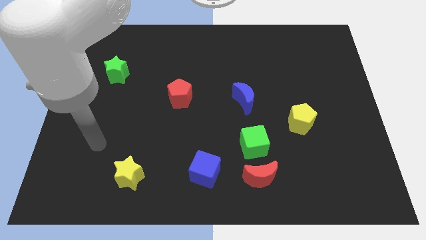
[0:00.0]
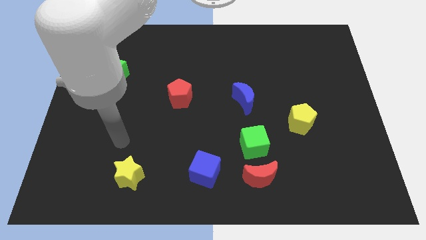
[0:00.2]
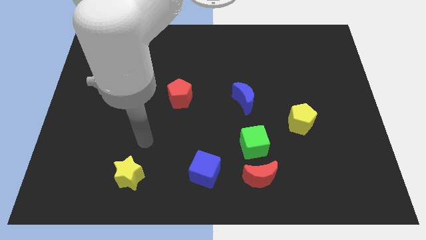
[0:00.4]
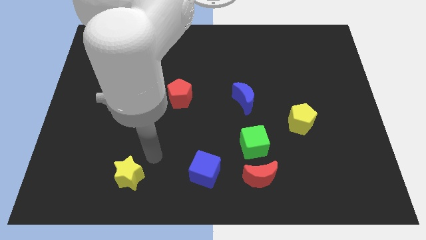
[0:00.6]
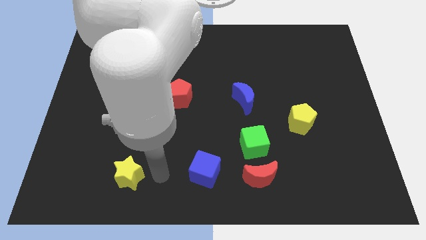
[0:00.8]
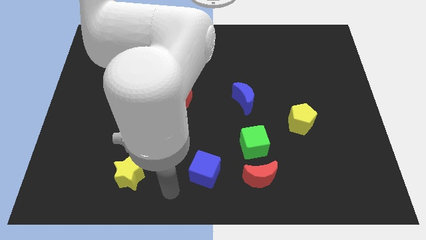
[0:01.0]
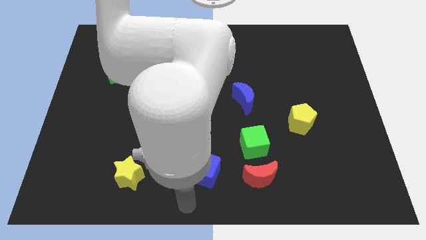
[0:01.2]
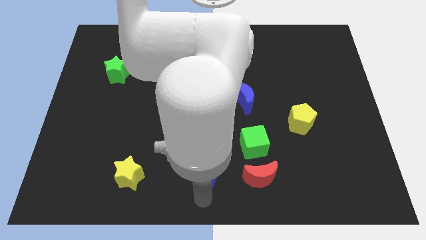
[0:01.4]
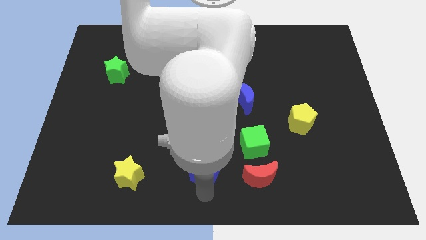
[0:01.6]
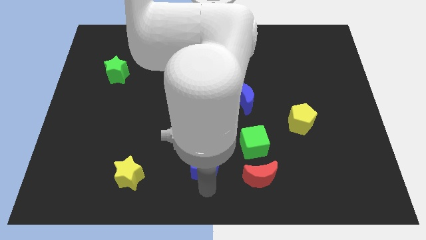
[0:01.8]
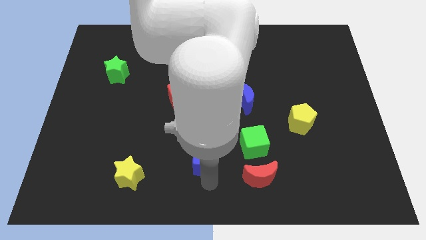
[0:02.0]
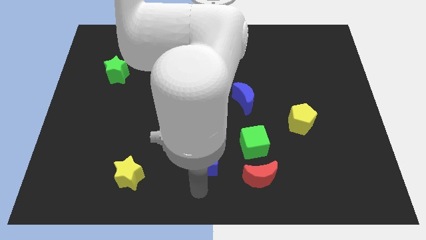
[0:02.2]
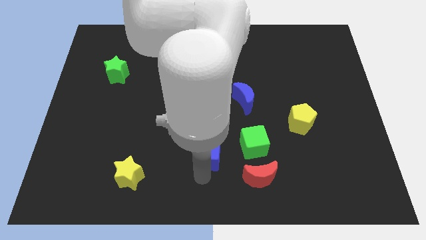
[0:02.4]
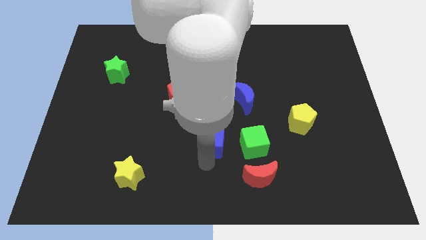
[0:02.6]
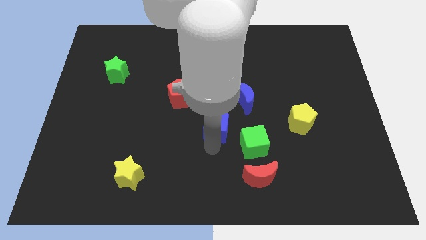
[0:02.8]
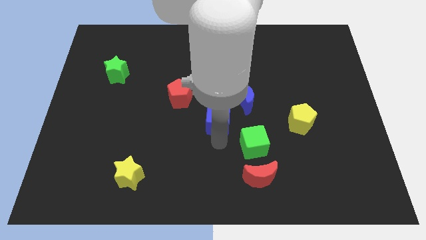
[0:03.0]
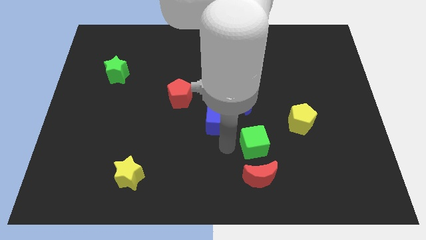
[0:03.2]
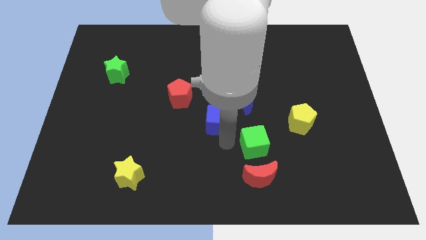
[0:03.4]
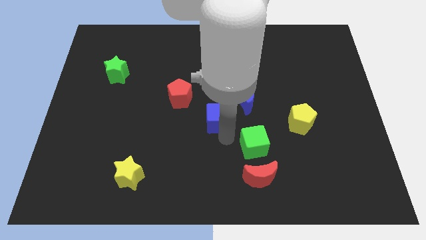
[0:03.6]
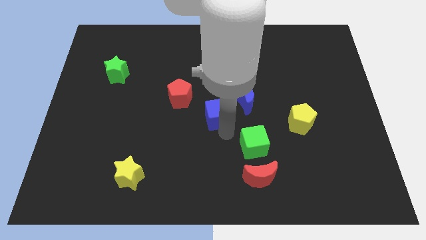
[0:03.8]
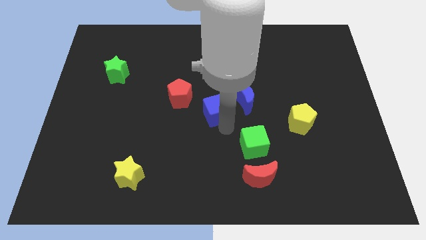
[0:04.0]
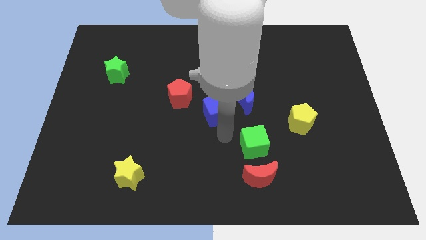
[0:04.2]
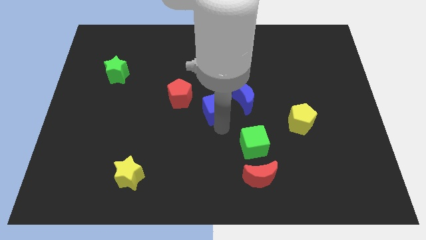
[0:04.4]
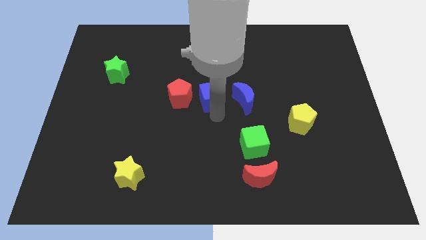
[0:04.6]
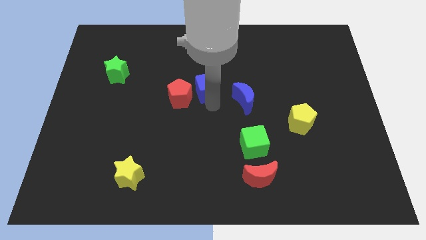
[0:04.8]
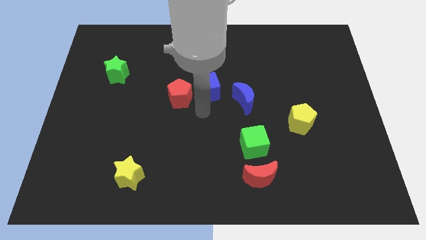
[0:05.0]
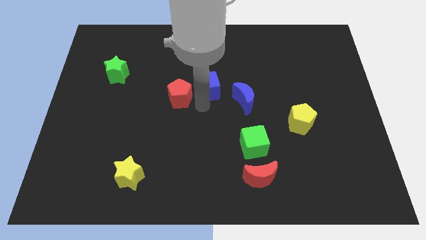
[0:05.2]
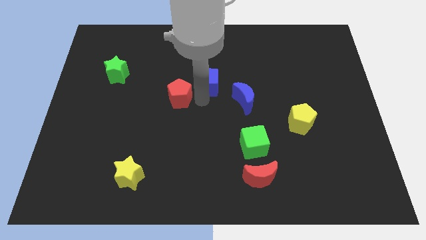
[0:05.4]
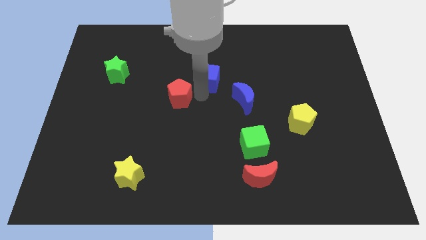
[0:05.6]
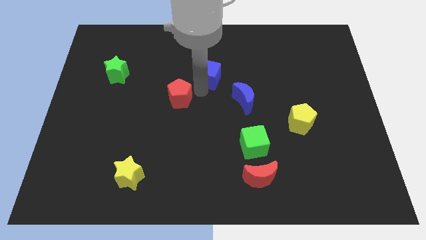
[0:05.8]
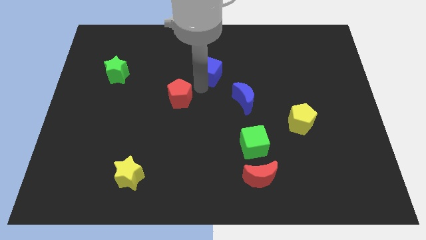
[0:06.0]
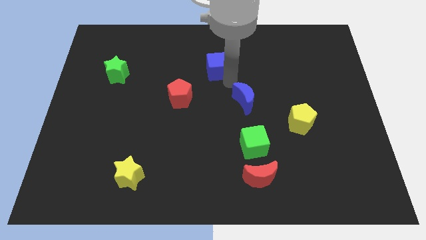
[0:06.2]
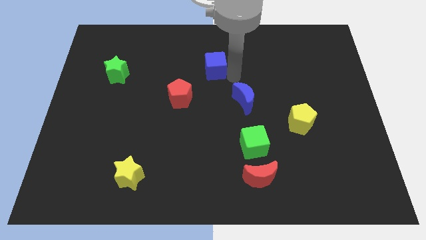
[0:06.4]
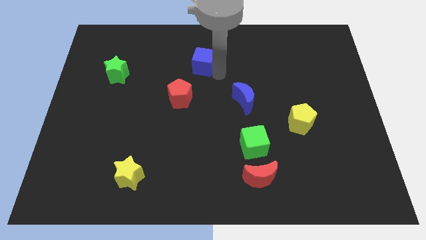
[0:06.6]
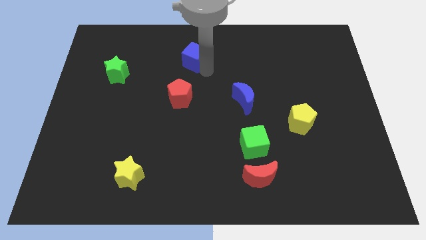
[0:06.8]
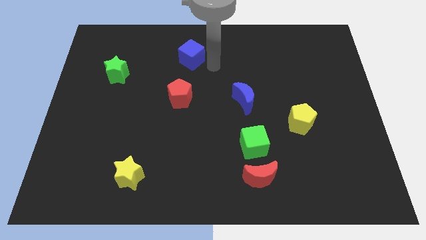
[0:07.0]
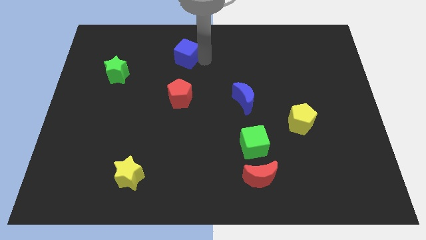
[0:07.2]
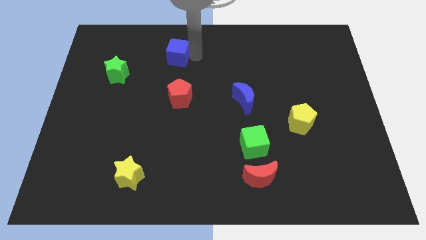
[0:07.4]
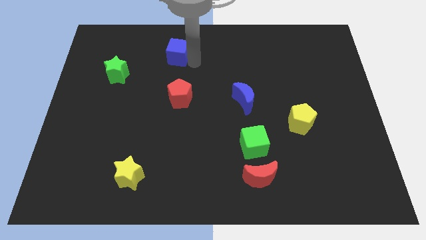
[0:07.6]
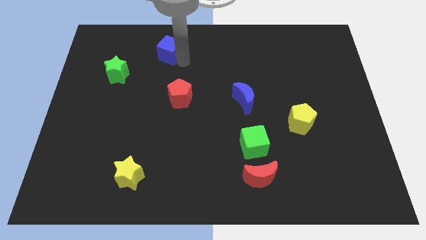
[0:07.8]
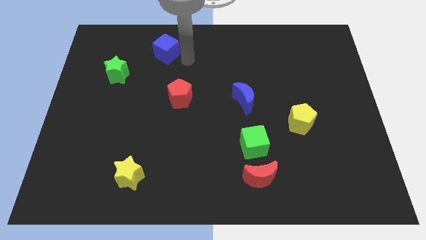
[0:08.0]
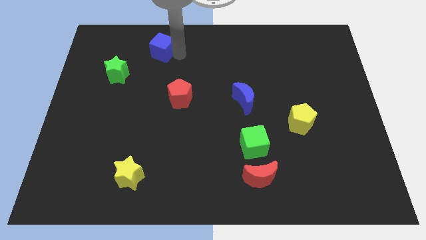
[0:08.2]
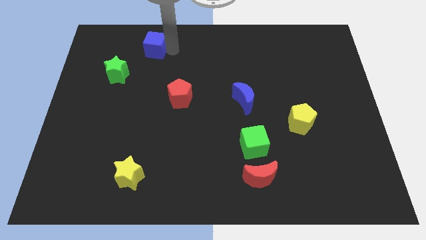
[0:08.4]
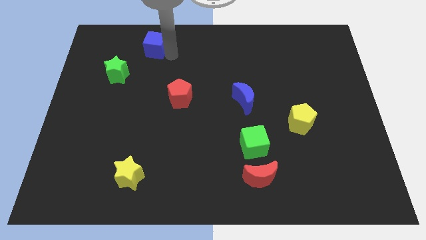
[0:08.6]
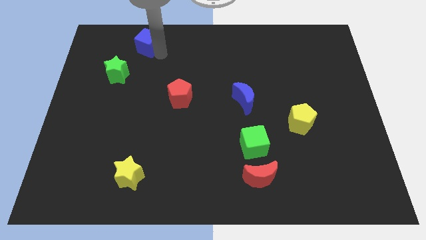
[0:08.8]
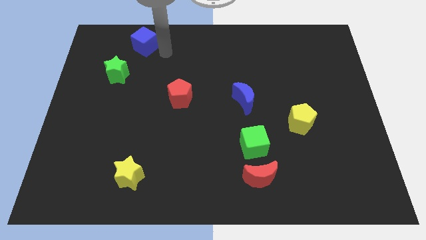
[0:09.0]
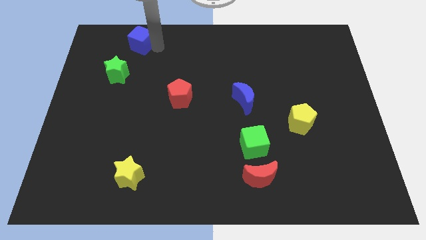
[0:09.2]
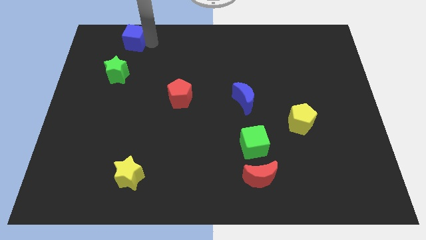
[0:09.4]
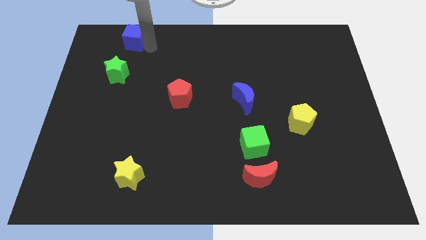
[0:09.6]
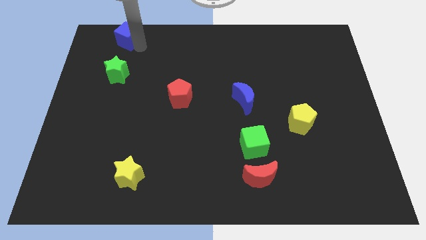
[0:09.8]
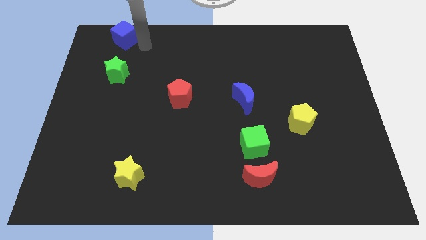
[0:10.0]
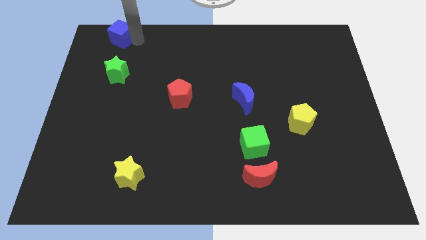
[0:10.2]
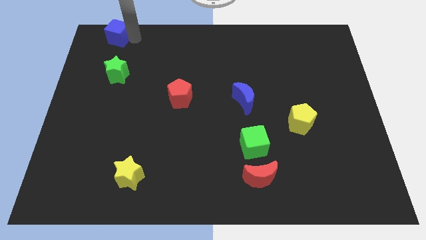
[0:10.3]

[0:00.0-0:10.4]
move the blue cube to the top left of the board

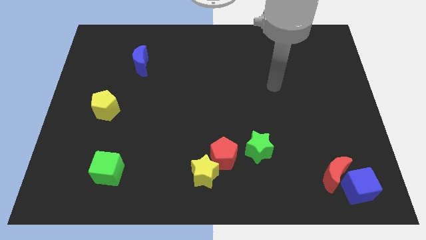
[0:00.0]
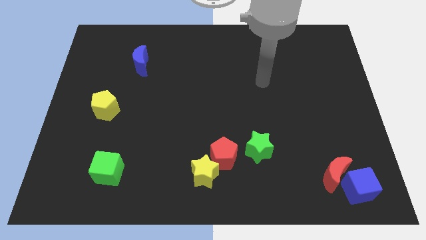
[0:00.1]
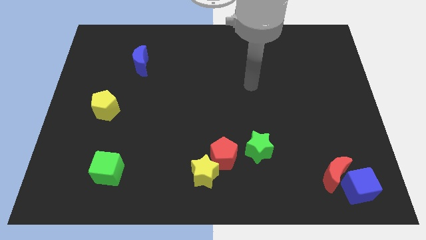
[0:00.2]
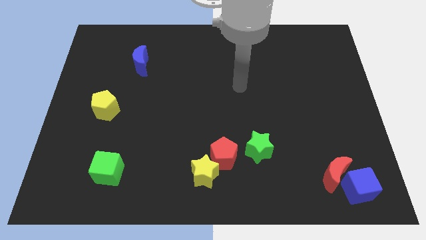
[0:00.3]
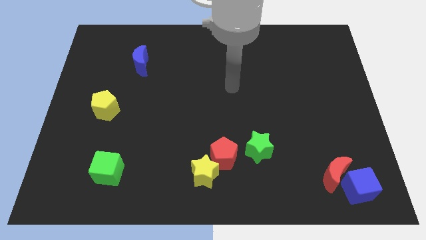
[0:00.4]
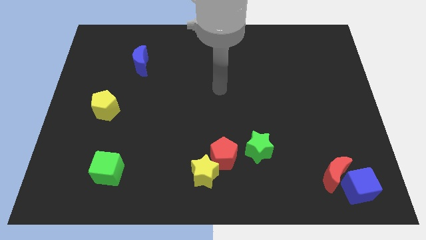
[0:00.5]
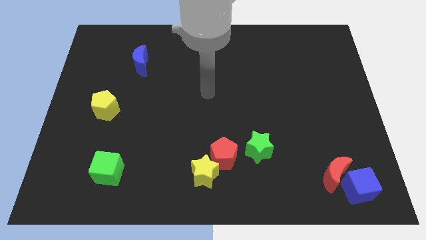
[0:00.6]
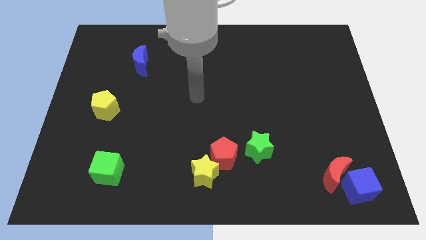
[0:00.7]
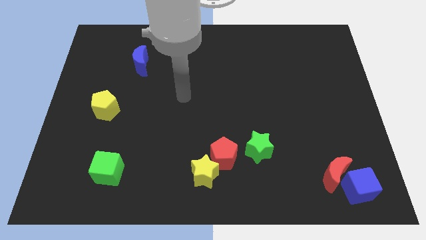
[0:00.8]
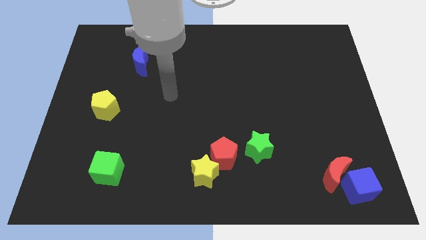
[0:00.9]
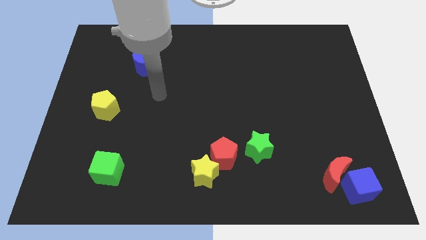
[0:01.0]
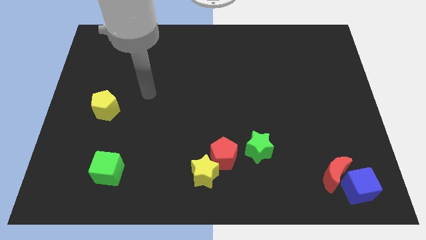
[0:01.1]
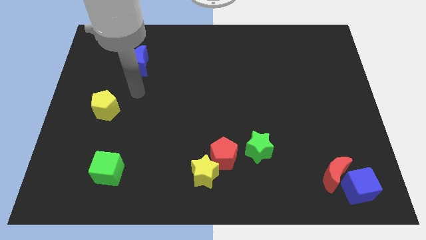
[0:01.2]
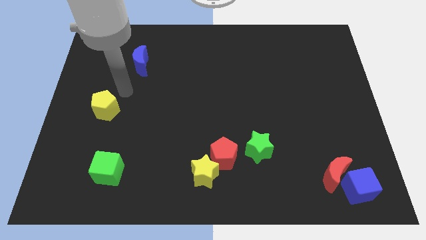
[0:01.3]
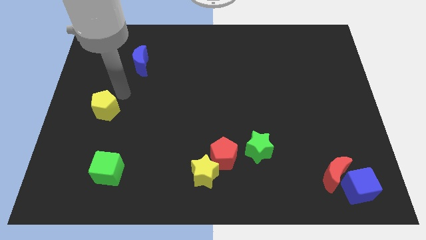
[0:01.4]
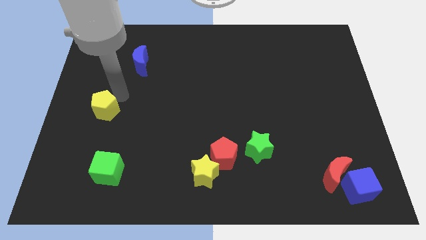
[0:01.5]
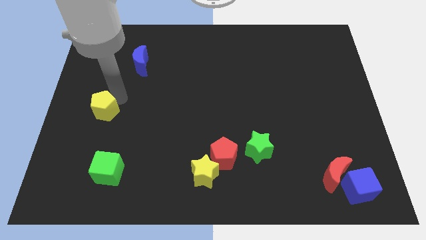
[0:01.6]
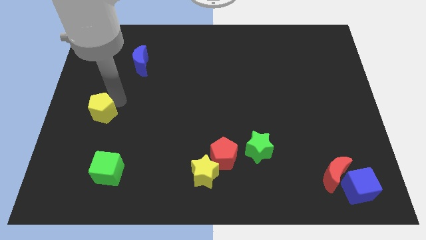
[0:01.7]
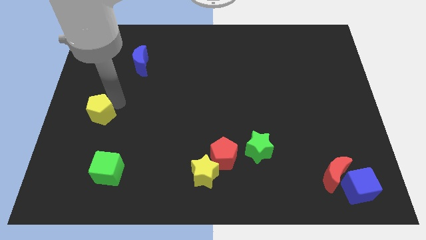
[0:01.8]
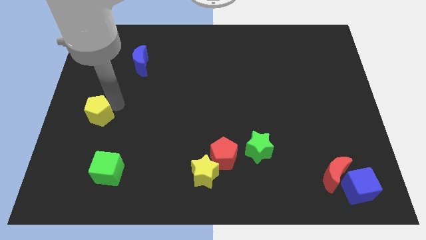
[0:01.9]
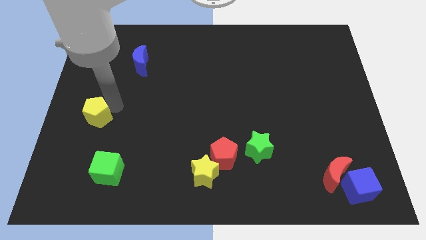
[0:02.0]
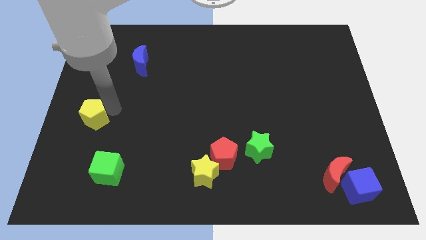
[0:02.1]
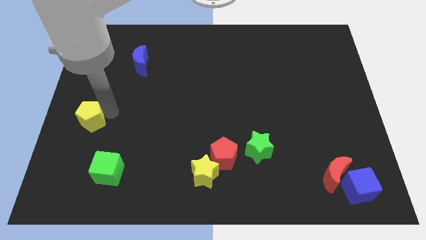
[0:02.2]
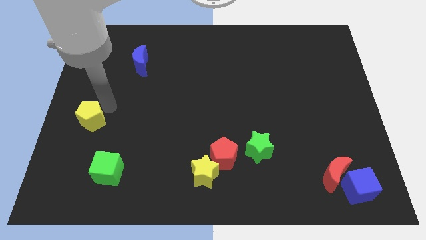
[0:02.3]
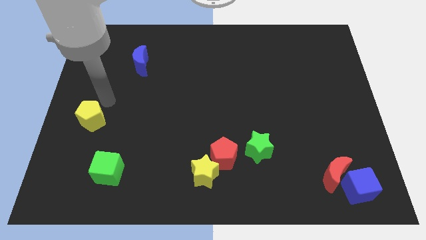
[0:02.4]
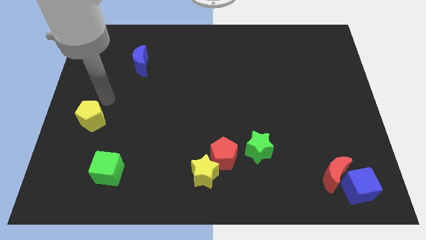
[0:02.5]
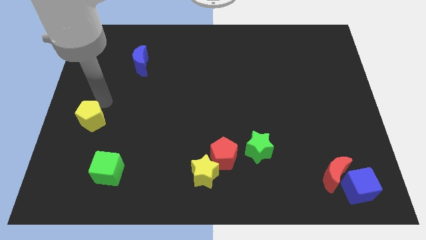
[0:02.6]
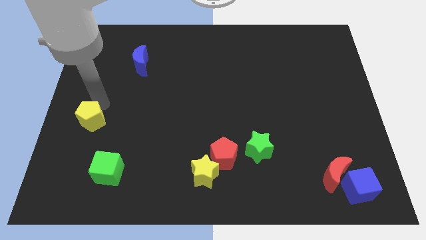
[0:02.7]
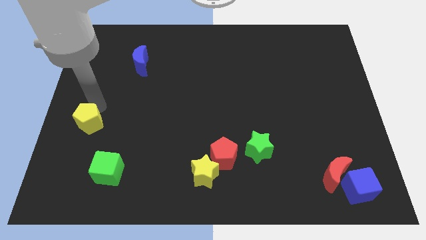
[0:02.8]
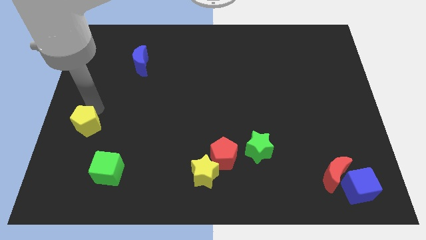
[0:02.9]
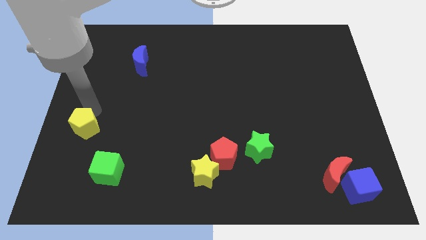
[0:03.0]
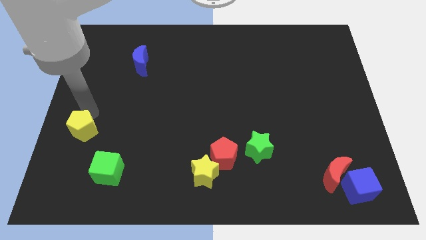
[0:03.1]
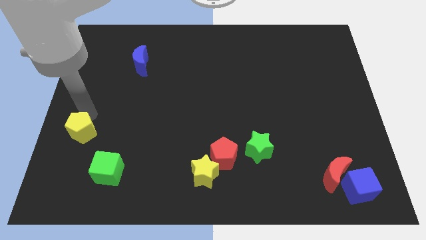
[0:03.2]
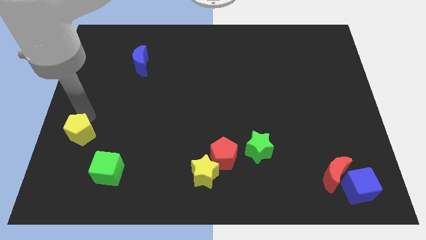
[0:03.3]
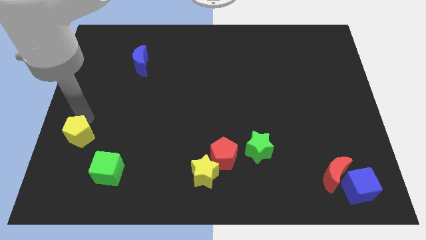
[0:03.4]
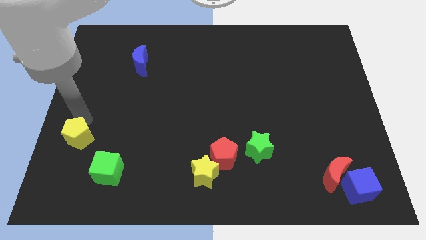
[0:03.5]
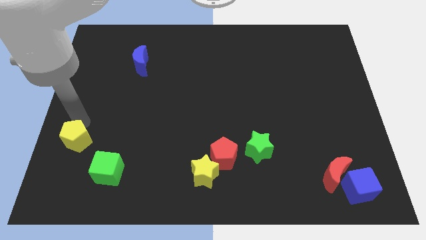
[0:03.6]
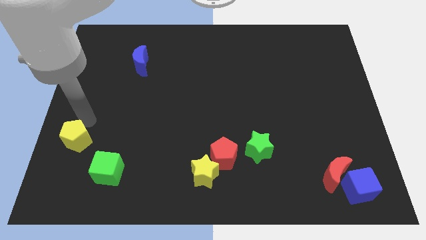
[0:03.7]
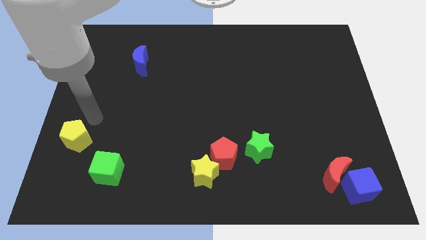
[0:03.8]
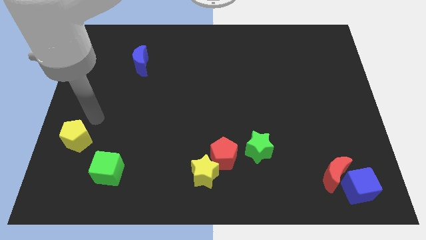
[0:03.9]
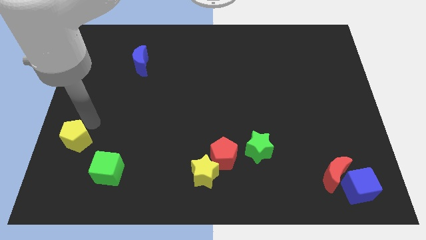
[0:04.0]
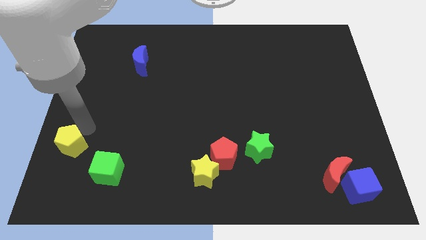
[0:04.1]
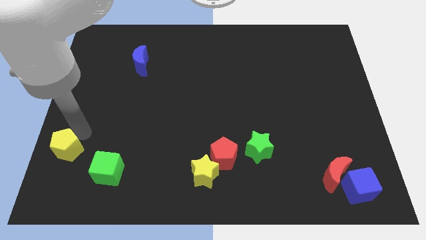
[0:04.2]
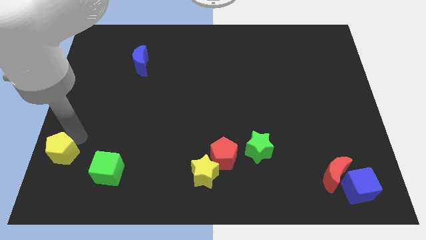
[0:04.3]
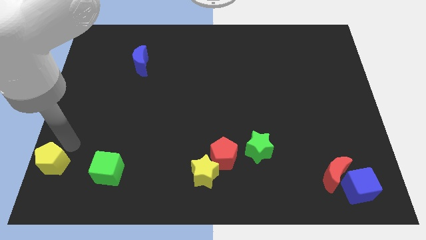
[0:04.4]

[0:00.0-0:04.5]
slide the yellow pentagon to the bottom left
